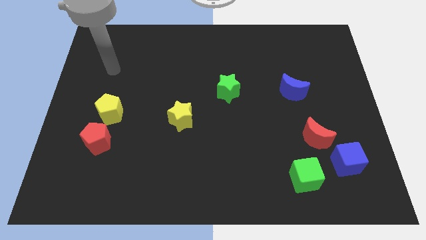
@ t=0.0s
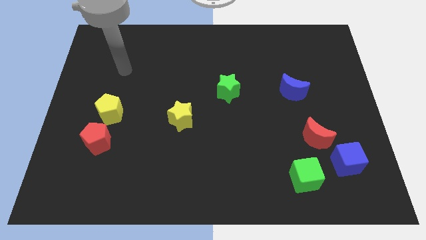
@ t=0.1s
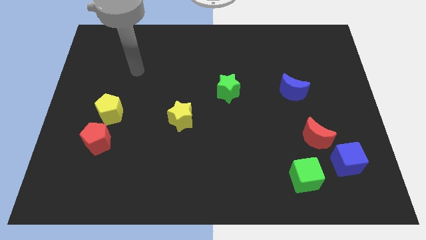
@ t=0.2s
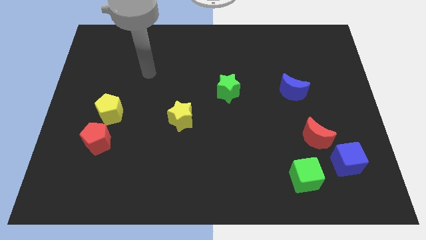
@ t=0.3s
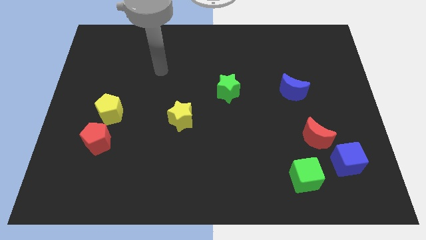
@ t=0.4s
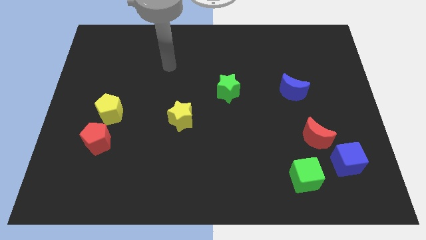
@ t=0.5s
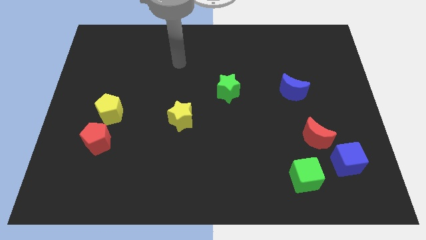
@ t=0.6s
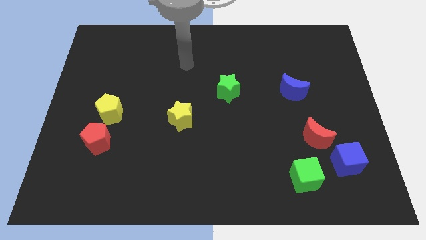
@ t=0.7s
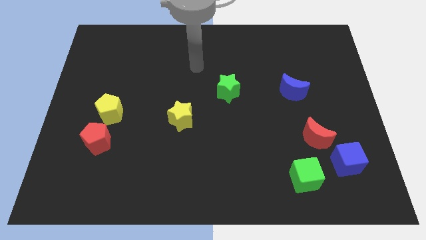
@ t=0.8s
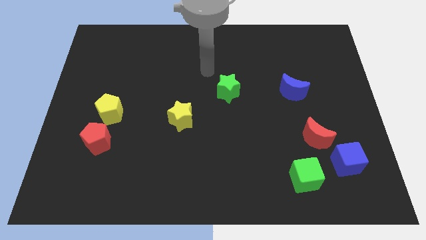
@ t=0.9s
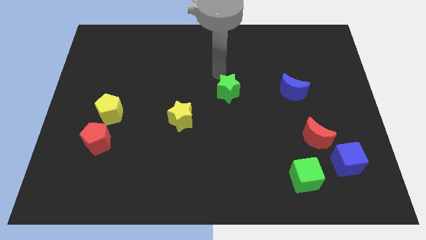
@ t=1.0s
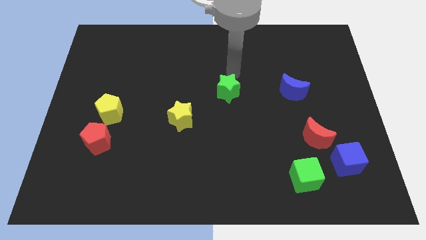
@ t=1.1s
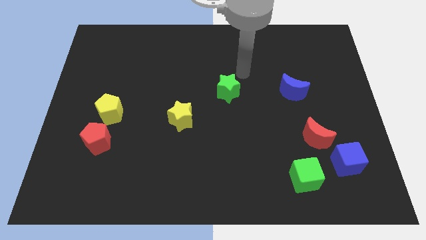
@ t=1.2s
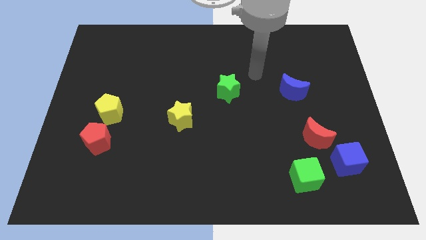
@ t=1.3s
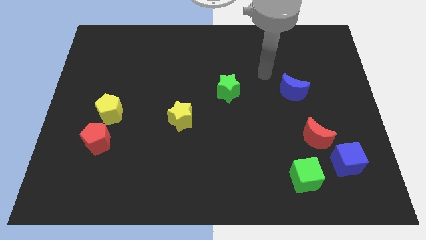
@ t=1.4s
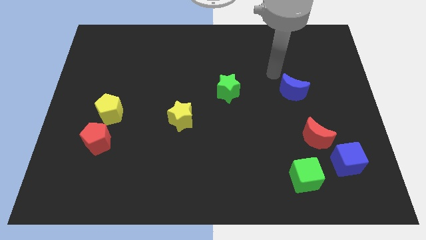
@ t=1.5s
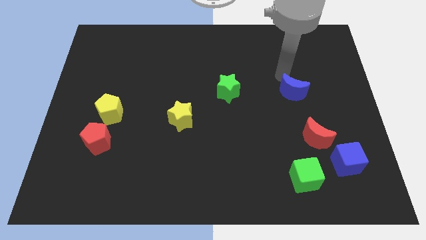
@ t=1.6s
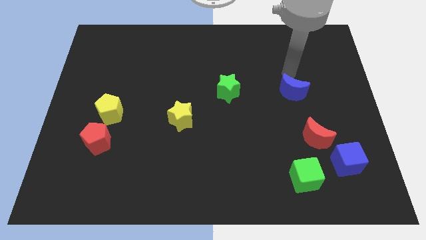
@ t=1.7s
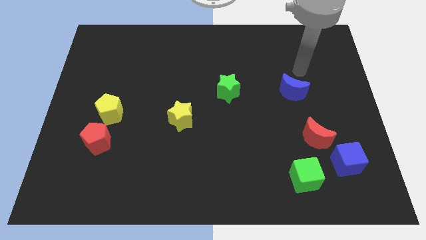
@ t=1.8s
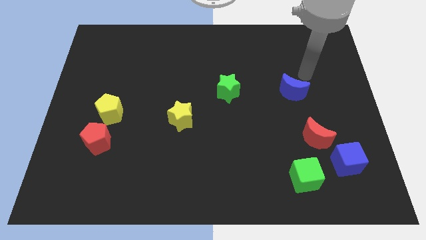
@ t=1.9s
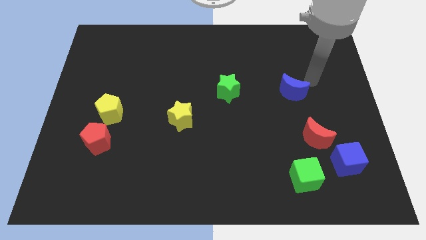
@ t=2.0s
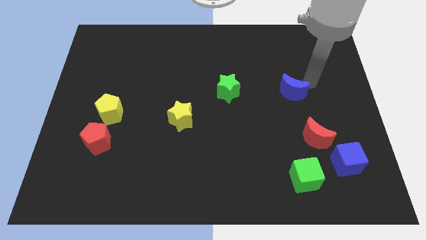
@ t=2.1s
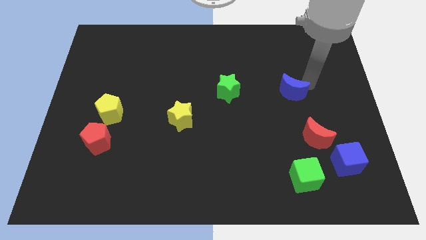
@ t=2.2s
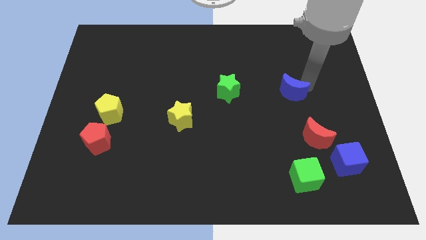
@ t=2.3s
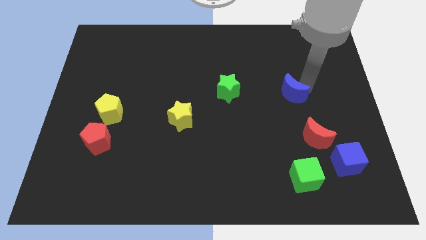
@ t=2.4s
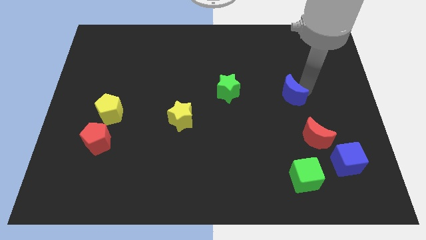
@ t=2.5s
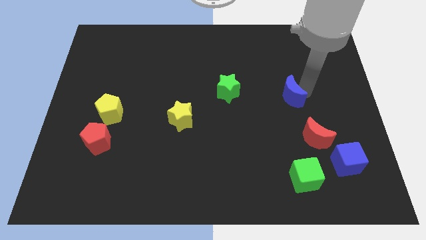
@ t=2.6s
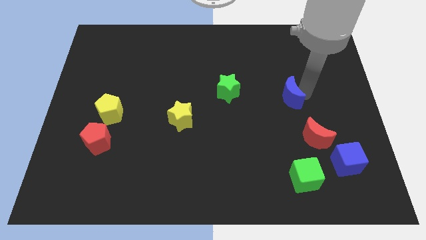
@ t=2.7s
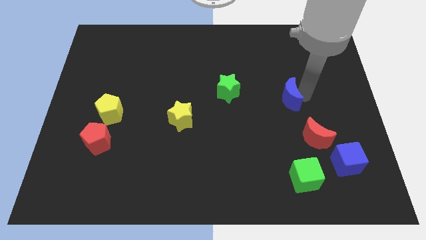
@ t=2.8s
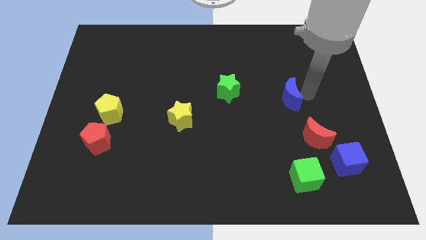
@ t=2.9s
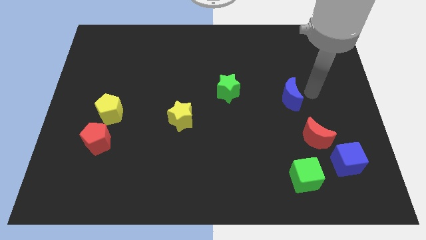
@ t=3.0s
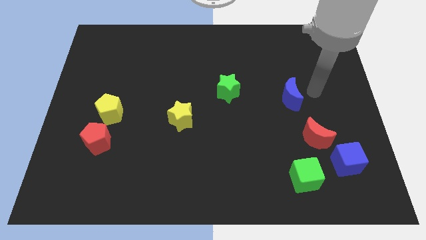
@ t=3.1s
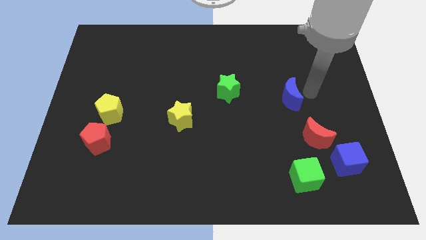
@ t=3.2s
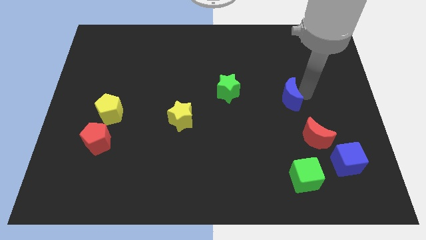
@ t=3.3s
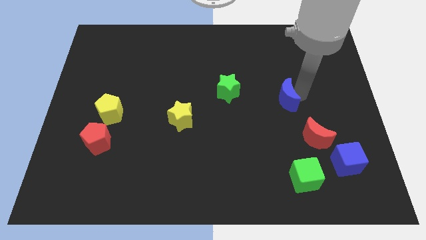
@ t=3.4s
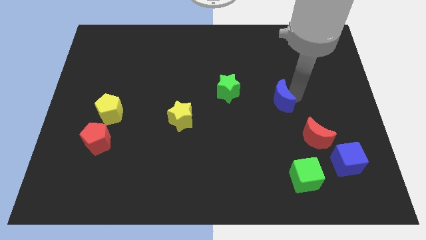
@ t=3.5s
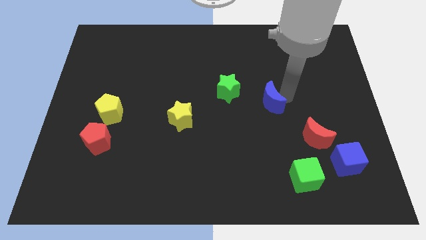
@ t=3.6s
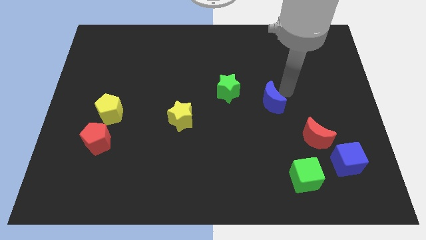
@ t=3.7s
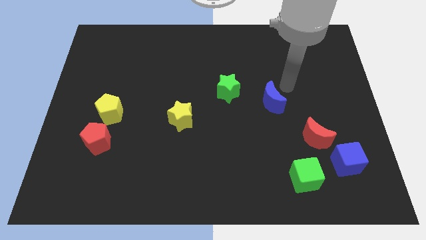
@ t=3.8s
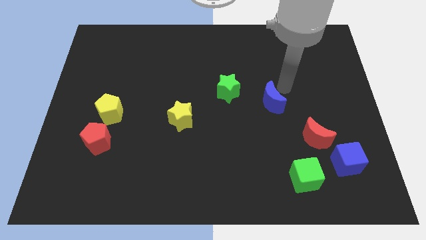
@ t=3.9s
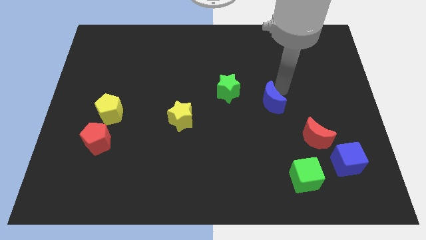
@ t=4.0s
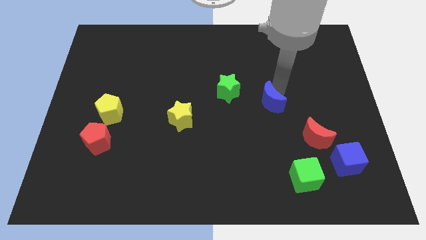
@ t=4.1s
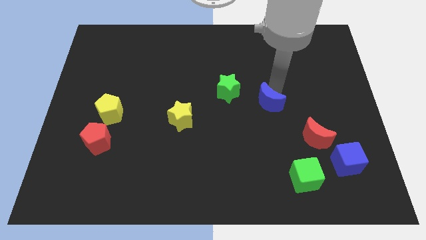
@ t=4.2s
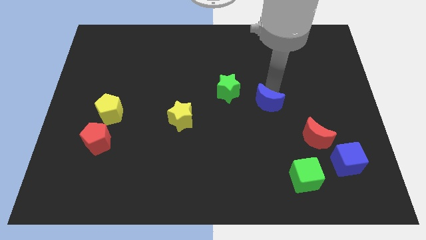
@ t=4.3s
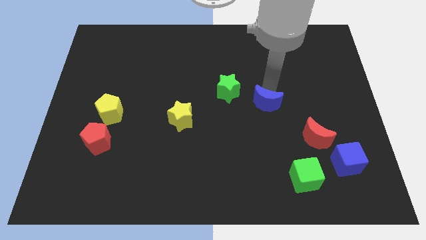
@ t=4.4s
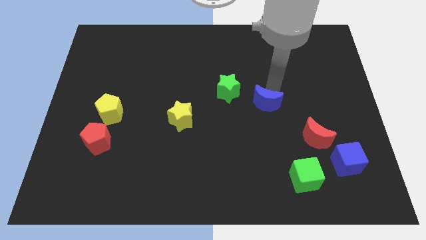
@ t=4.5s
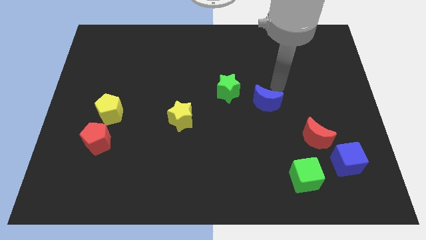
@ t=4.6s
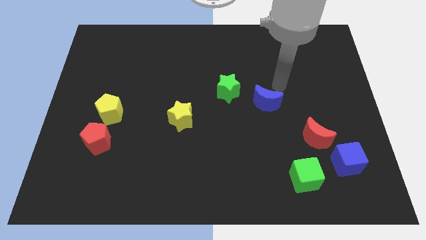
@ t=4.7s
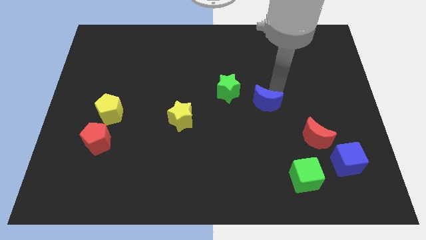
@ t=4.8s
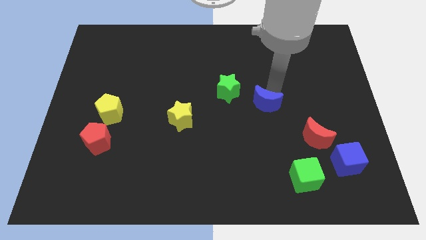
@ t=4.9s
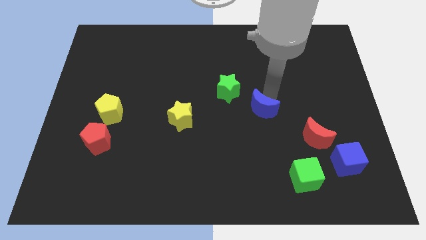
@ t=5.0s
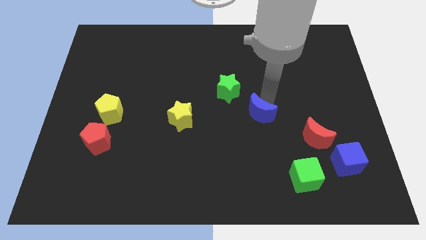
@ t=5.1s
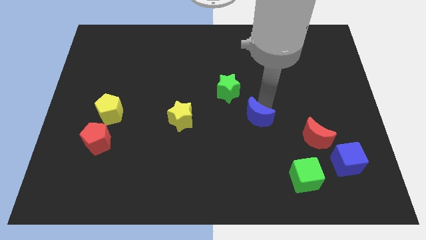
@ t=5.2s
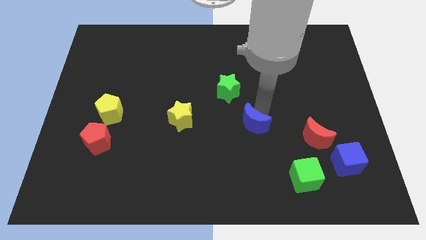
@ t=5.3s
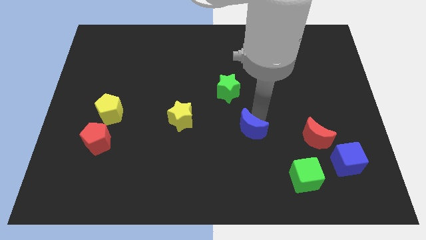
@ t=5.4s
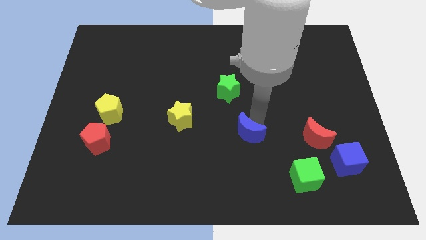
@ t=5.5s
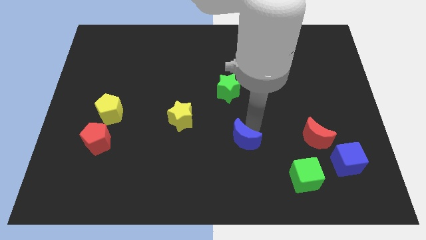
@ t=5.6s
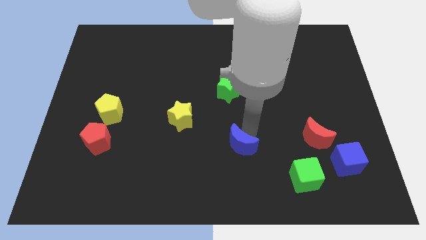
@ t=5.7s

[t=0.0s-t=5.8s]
move the blue moon down and then left

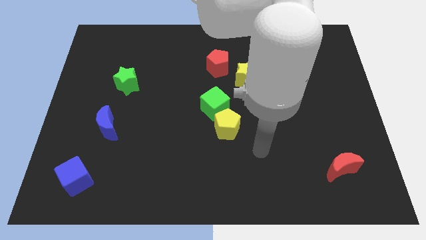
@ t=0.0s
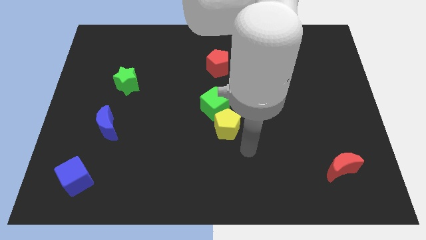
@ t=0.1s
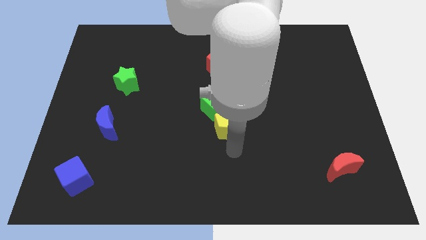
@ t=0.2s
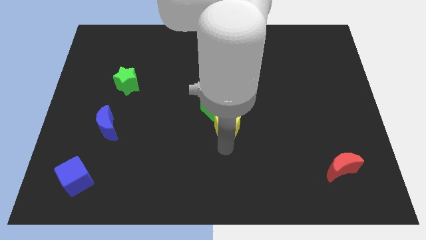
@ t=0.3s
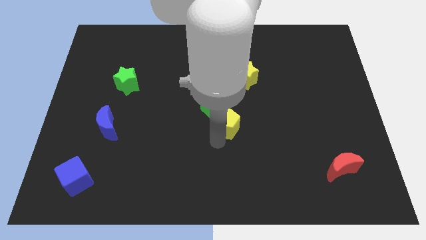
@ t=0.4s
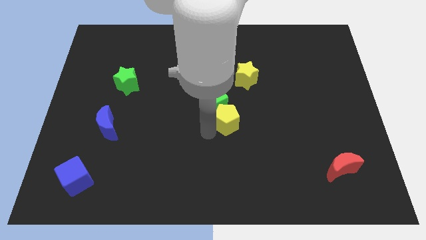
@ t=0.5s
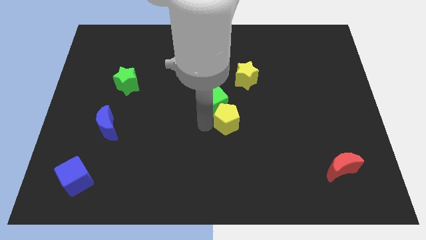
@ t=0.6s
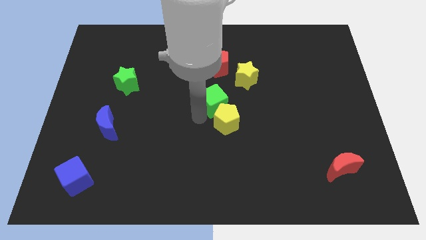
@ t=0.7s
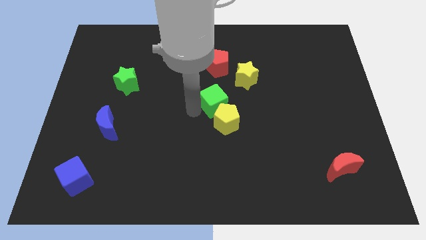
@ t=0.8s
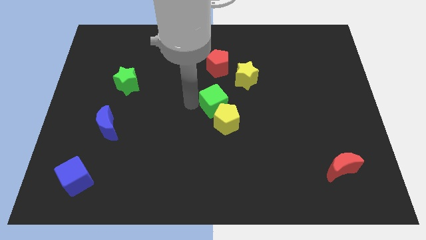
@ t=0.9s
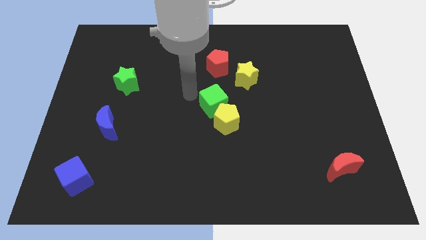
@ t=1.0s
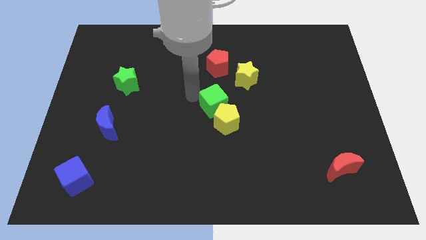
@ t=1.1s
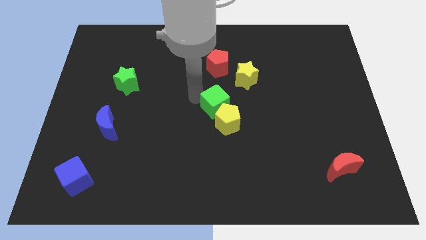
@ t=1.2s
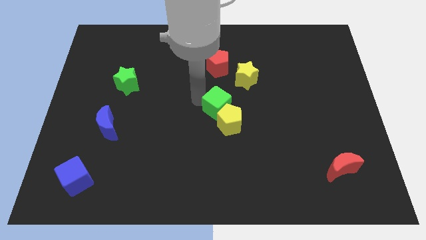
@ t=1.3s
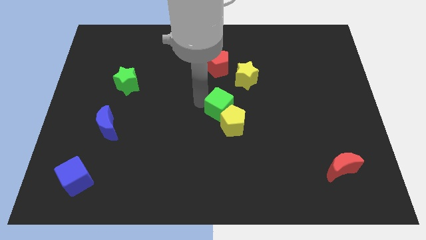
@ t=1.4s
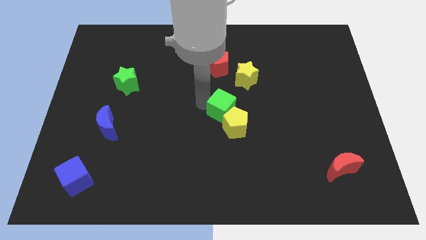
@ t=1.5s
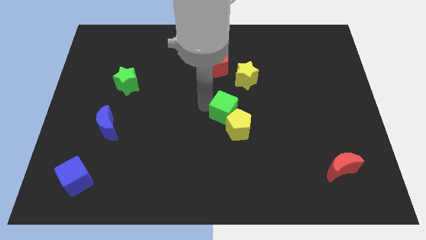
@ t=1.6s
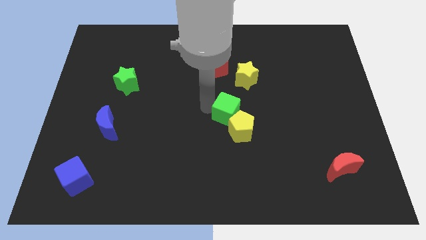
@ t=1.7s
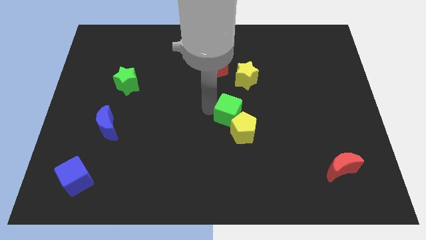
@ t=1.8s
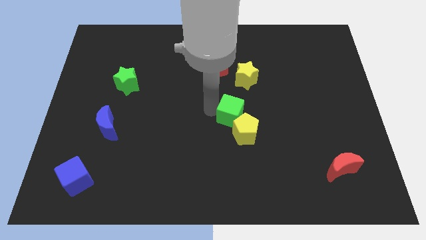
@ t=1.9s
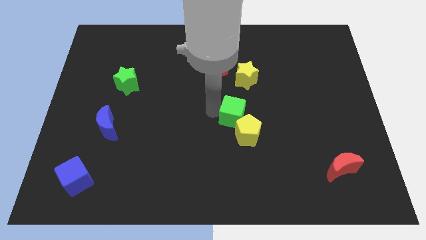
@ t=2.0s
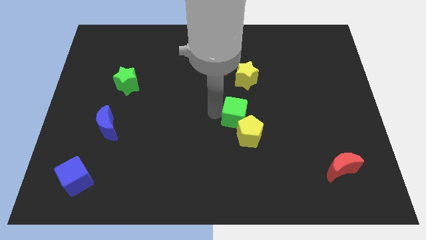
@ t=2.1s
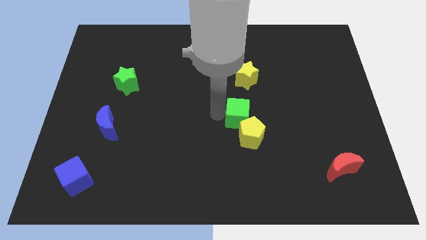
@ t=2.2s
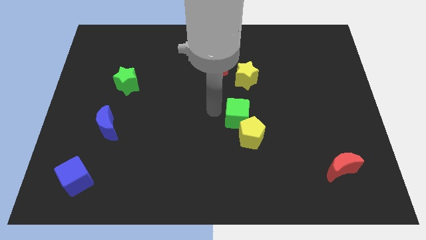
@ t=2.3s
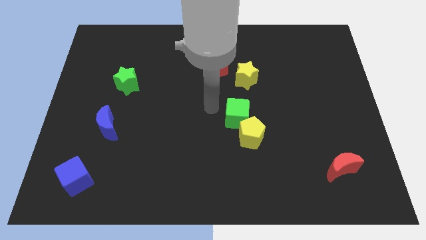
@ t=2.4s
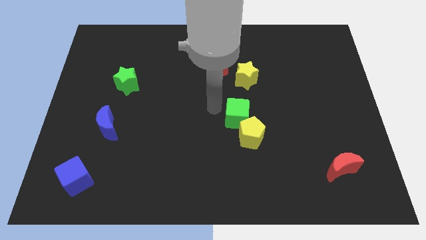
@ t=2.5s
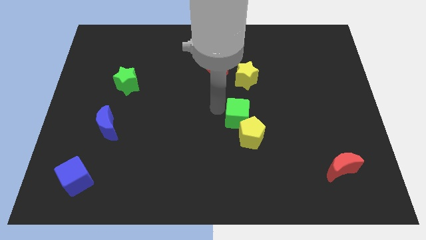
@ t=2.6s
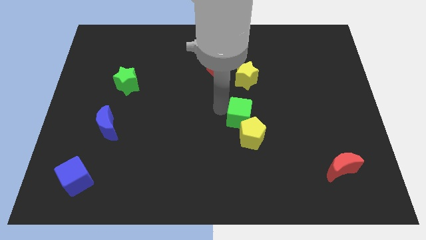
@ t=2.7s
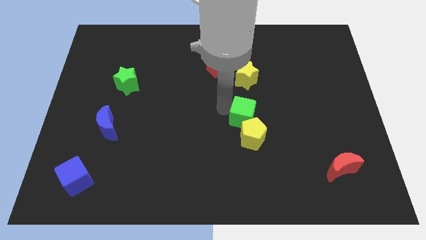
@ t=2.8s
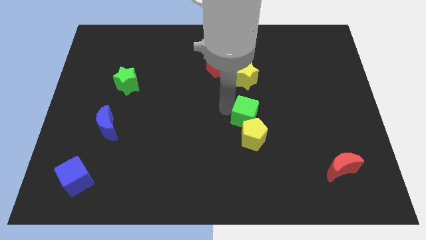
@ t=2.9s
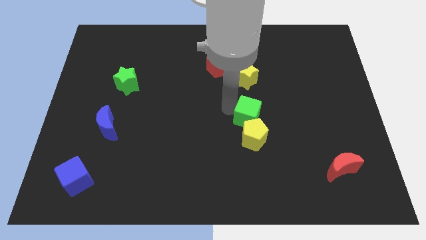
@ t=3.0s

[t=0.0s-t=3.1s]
slightly move the green cube diagonally downwards and to the right
